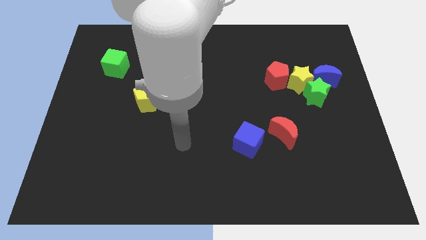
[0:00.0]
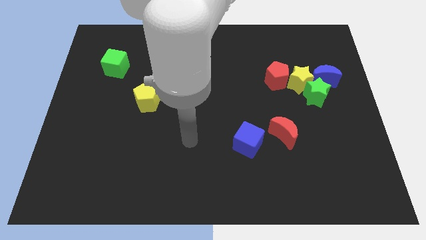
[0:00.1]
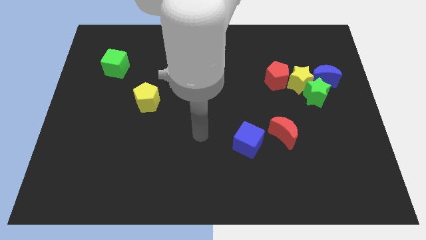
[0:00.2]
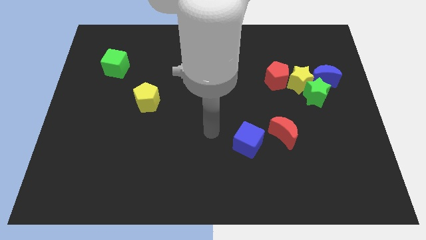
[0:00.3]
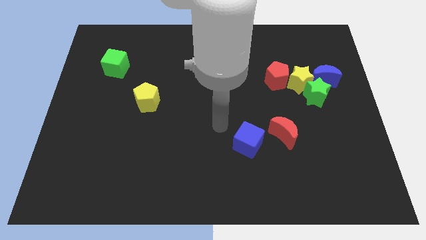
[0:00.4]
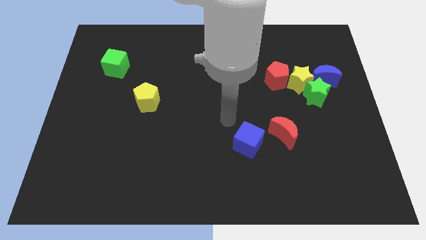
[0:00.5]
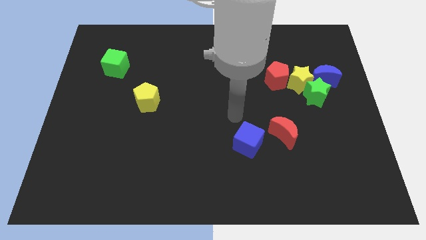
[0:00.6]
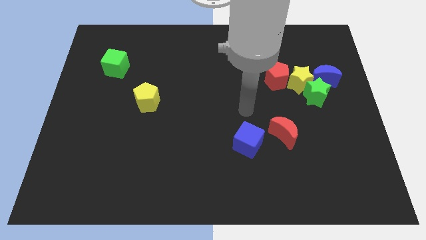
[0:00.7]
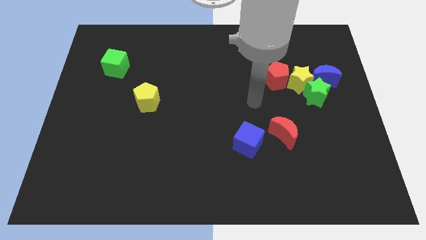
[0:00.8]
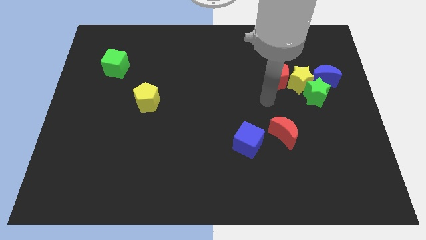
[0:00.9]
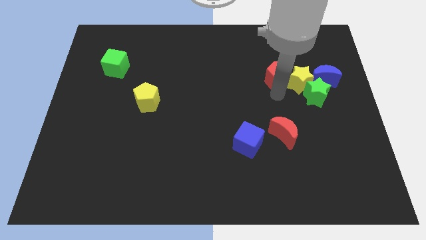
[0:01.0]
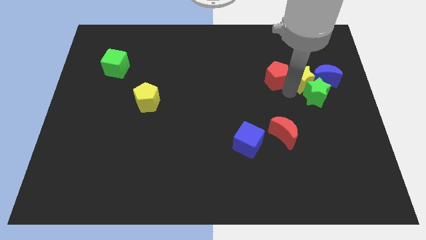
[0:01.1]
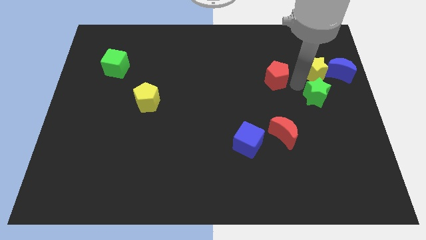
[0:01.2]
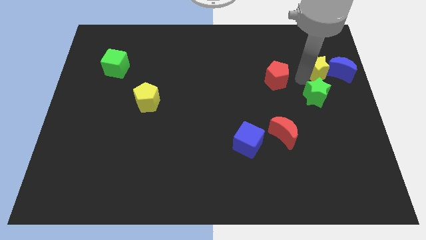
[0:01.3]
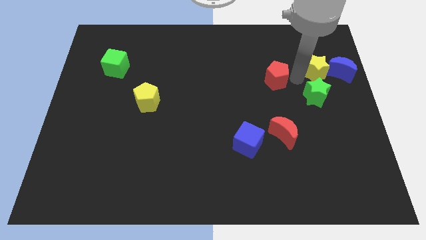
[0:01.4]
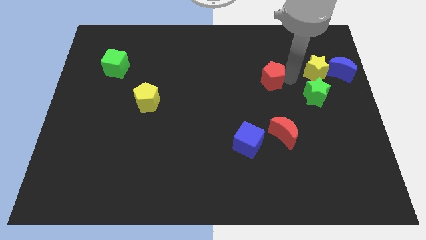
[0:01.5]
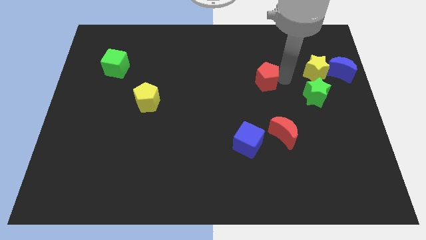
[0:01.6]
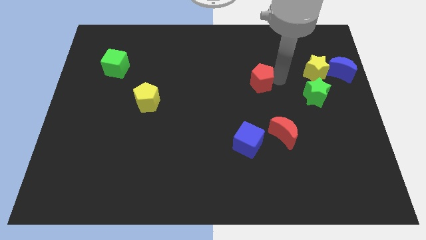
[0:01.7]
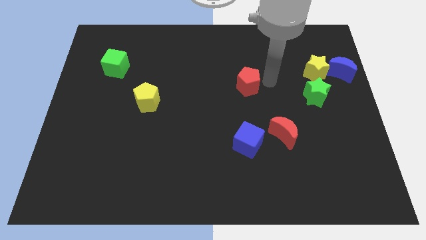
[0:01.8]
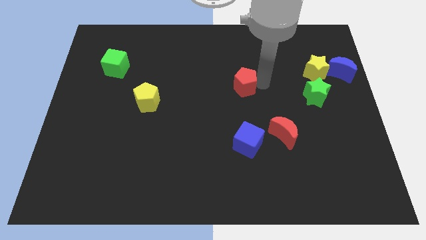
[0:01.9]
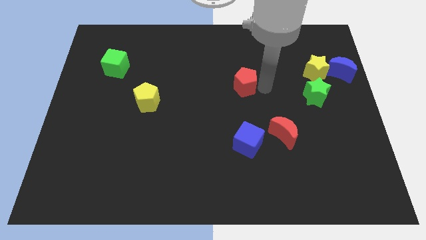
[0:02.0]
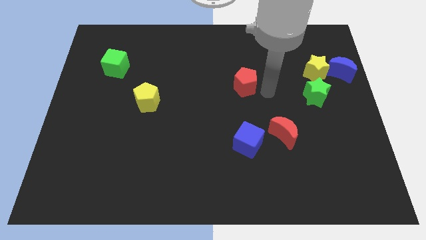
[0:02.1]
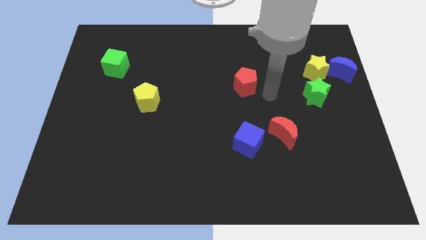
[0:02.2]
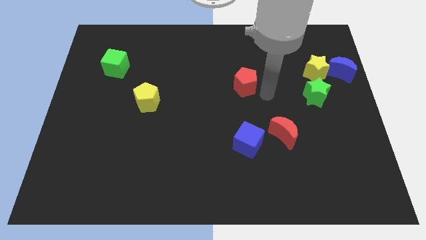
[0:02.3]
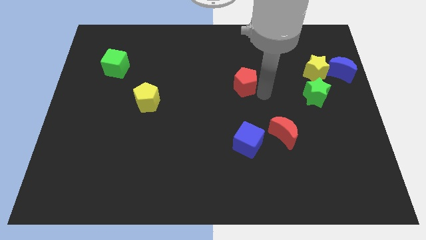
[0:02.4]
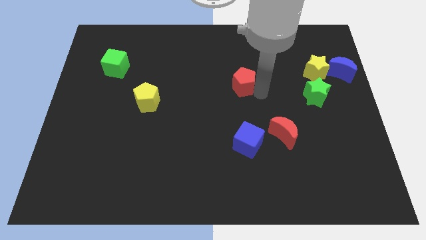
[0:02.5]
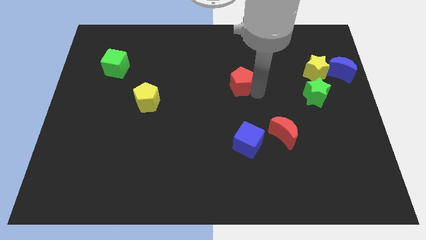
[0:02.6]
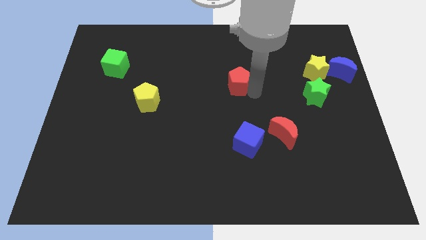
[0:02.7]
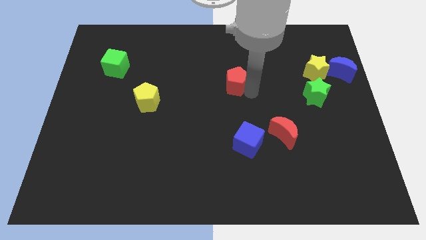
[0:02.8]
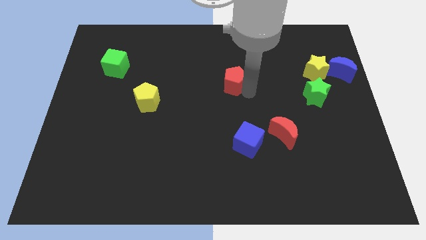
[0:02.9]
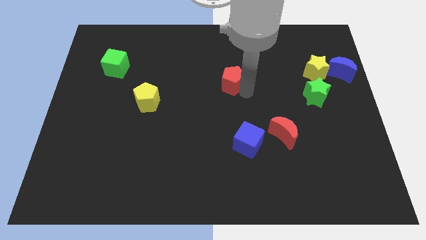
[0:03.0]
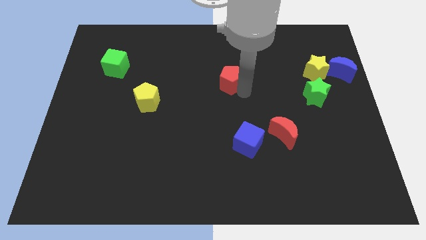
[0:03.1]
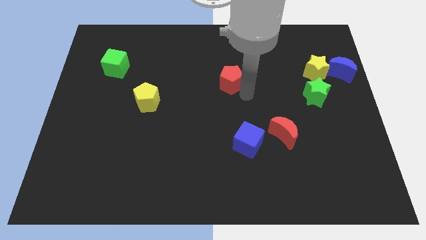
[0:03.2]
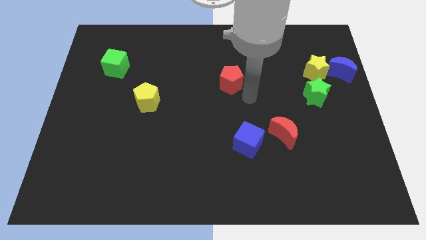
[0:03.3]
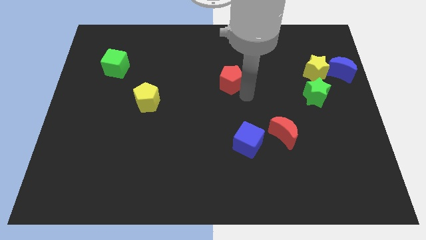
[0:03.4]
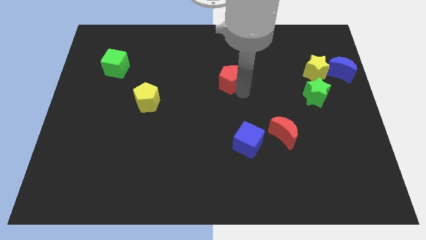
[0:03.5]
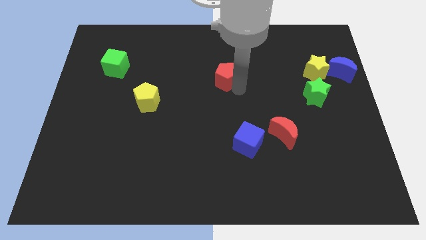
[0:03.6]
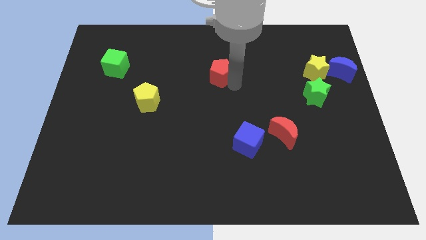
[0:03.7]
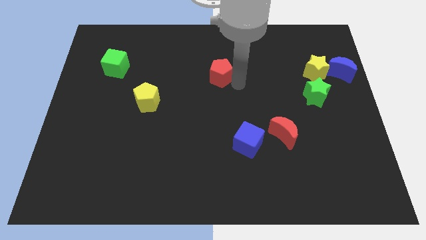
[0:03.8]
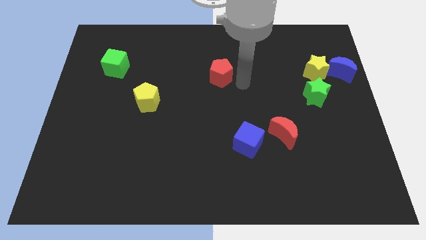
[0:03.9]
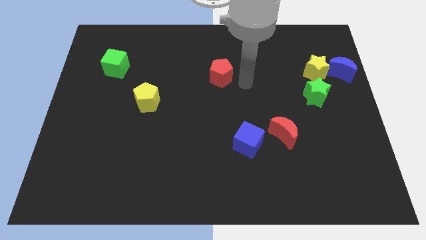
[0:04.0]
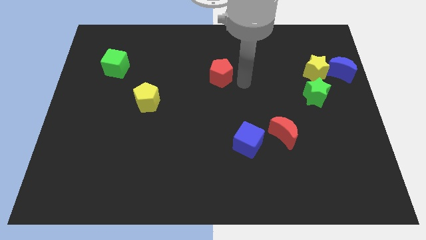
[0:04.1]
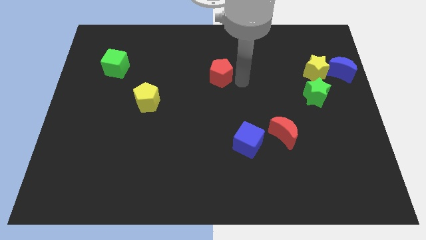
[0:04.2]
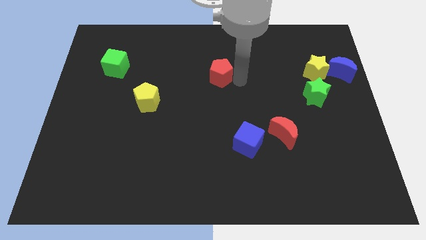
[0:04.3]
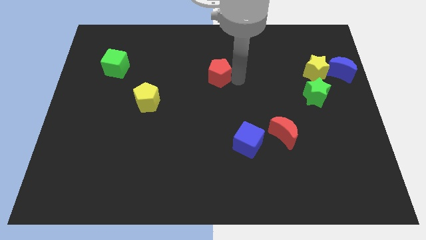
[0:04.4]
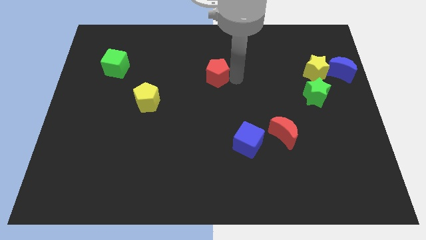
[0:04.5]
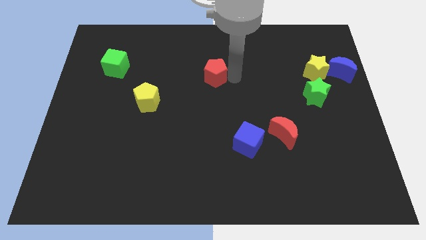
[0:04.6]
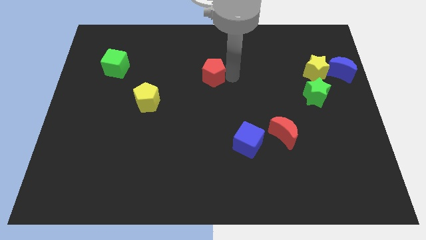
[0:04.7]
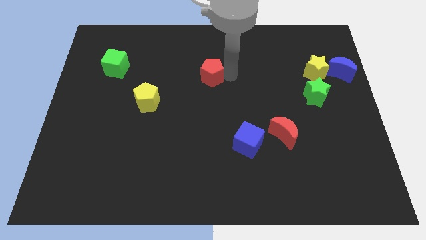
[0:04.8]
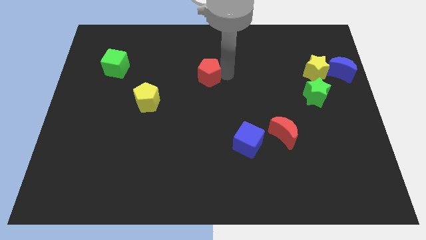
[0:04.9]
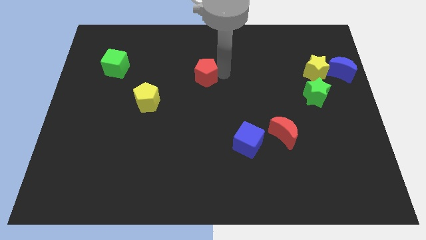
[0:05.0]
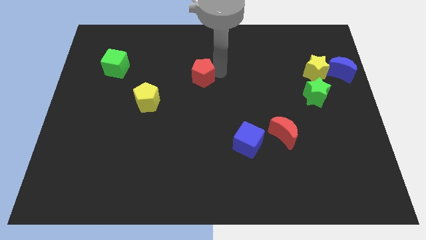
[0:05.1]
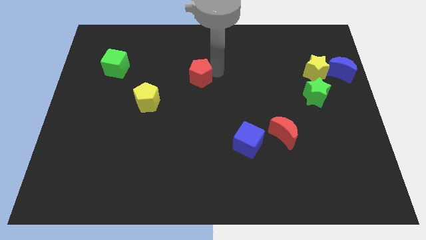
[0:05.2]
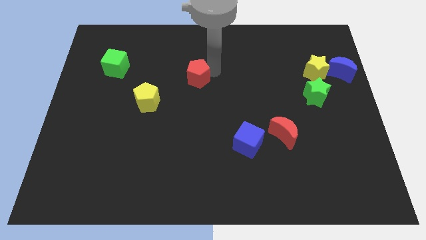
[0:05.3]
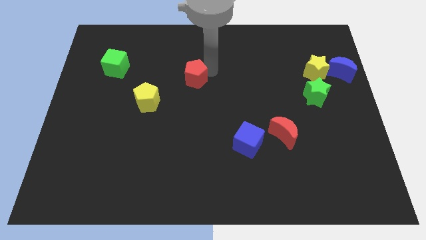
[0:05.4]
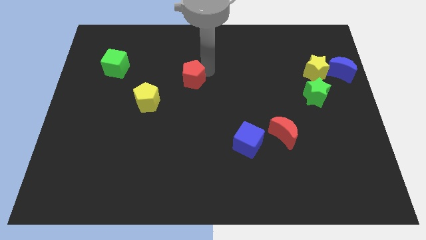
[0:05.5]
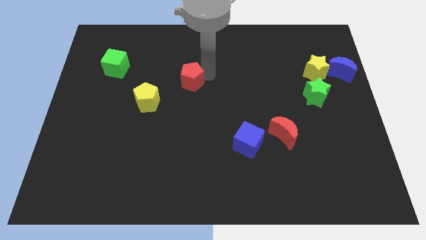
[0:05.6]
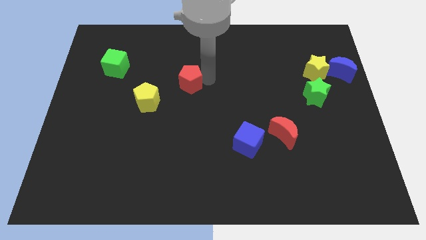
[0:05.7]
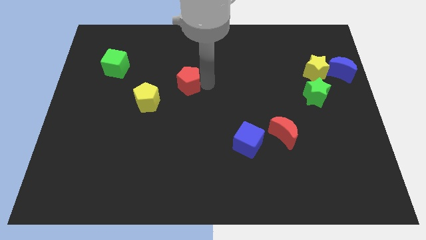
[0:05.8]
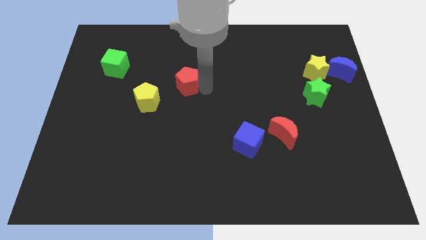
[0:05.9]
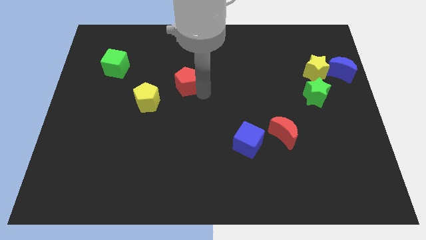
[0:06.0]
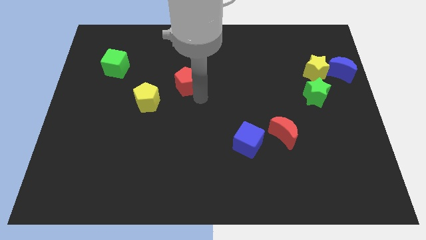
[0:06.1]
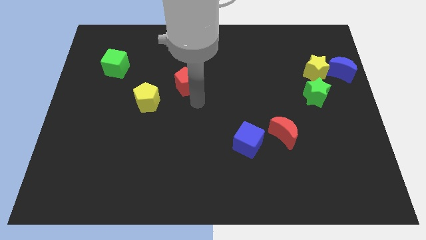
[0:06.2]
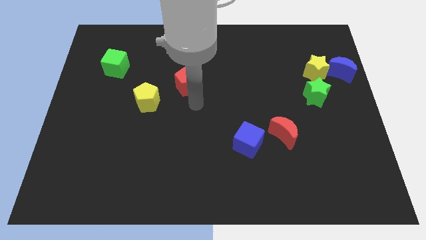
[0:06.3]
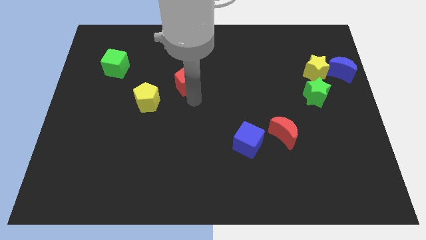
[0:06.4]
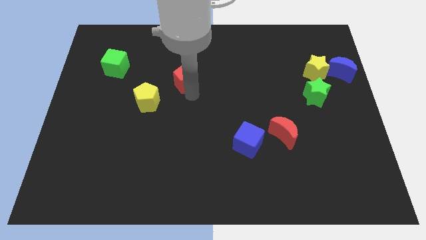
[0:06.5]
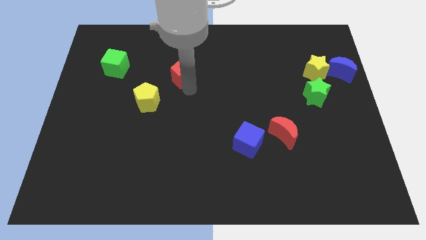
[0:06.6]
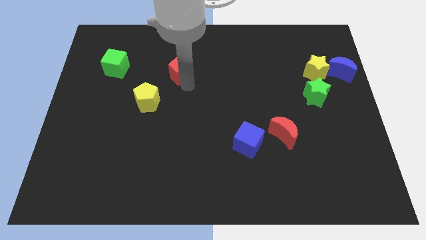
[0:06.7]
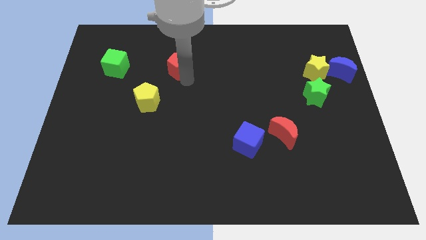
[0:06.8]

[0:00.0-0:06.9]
push the red pentagon to the right side of the green cube
